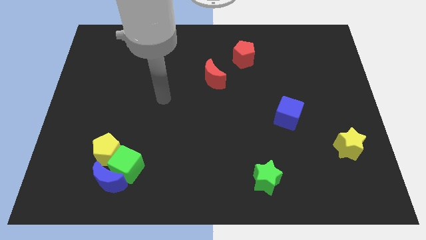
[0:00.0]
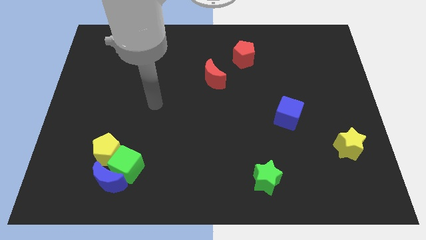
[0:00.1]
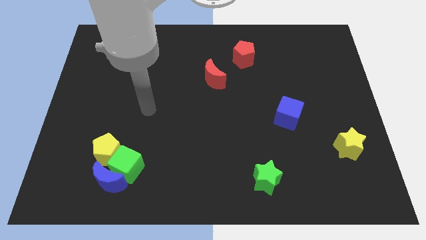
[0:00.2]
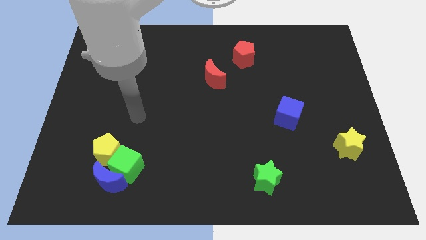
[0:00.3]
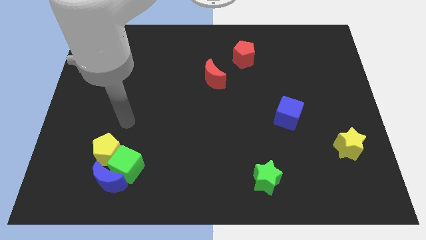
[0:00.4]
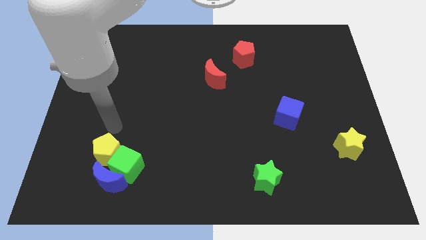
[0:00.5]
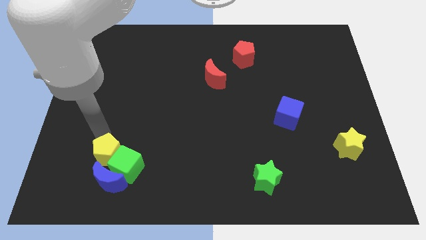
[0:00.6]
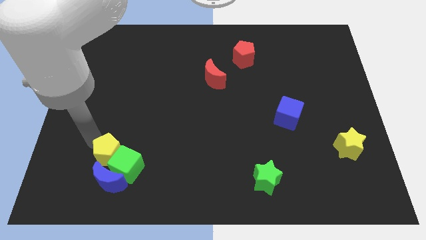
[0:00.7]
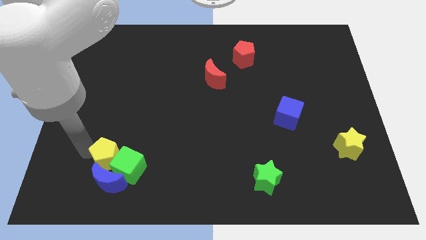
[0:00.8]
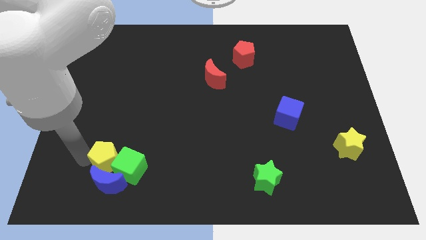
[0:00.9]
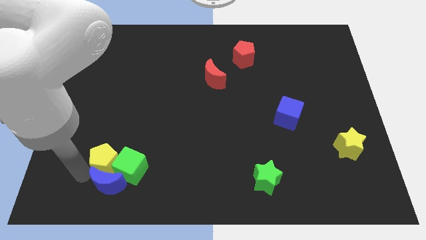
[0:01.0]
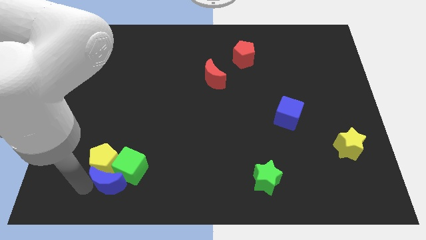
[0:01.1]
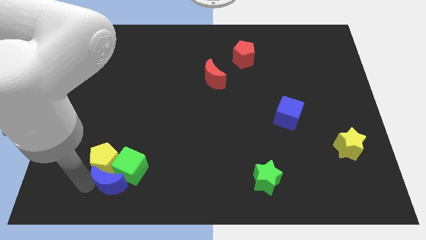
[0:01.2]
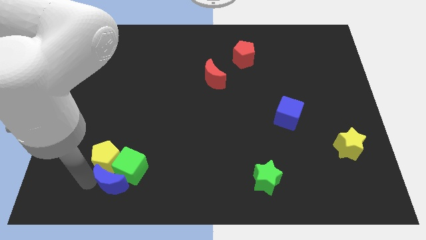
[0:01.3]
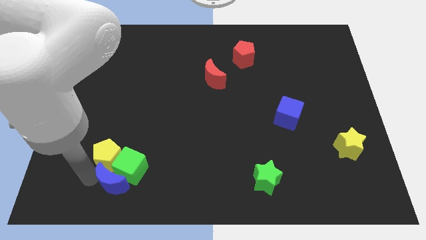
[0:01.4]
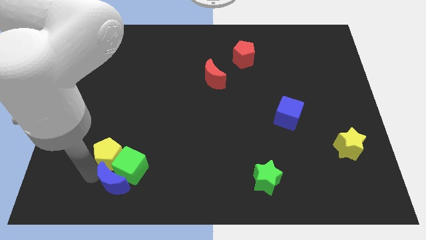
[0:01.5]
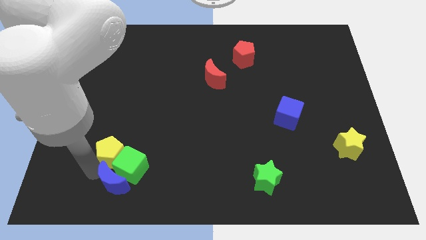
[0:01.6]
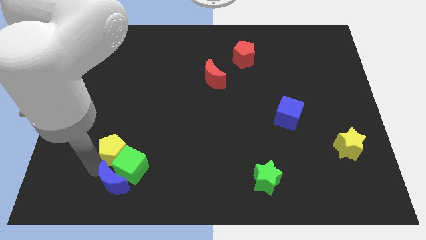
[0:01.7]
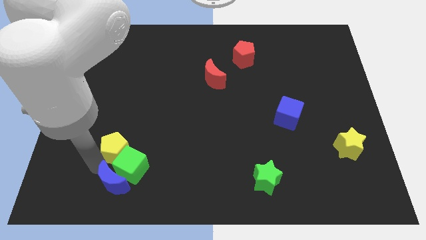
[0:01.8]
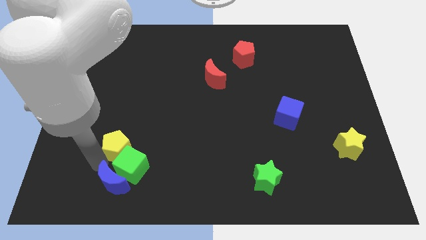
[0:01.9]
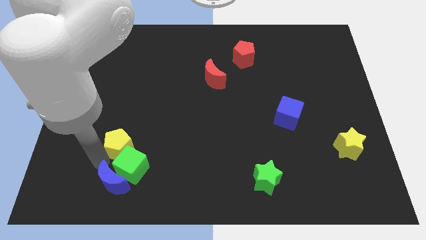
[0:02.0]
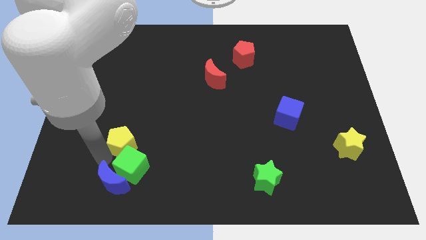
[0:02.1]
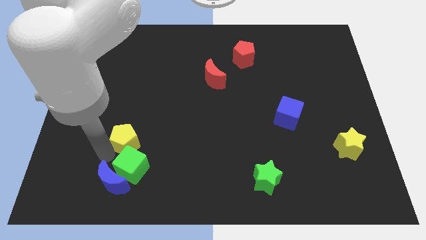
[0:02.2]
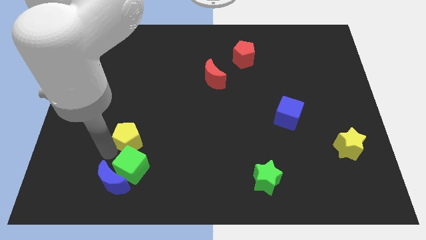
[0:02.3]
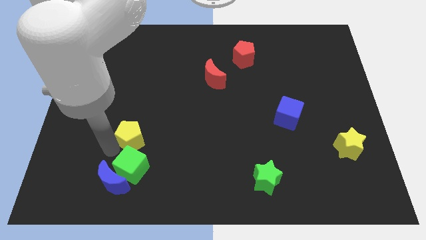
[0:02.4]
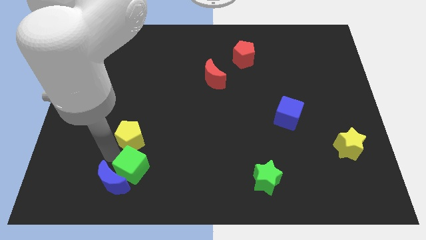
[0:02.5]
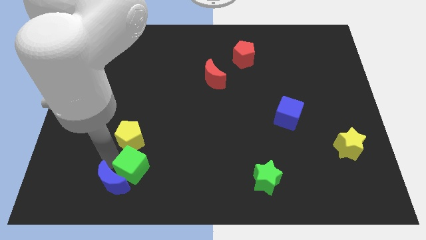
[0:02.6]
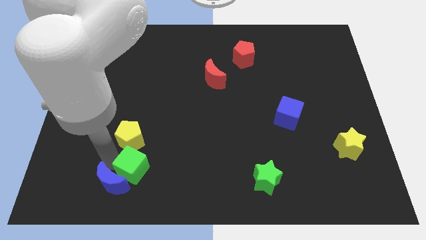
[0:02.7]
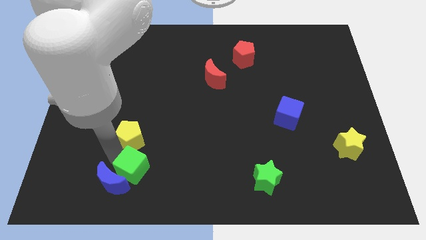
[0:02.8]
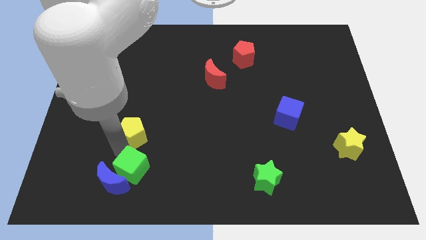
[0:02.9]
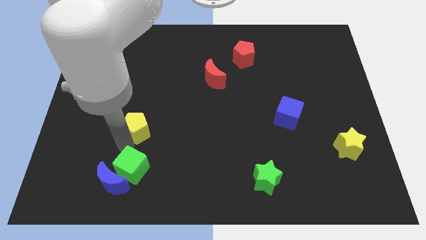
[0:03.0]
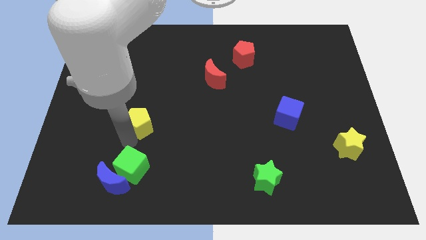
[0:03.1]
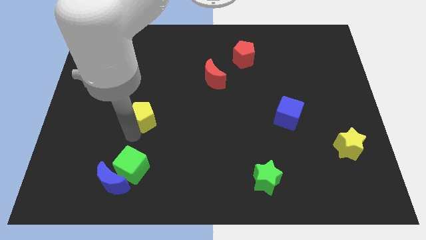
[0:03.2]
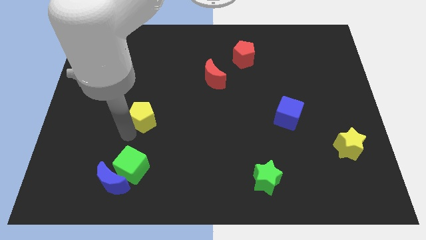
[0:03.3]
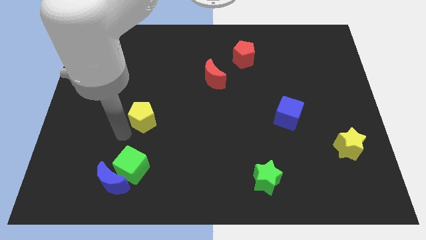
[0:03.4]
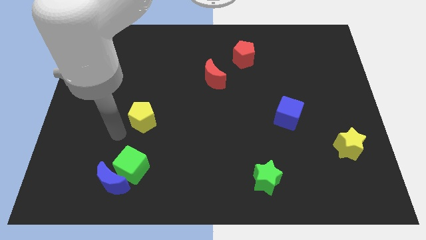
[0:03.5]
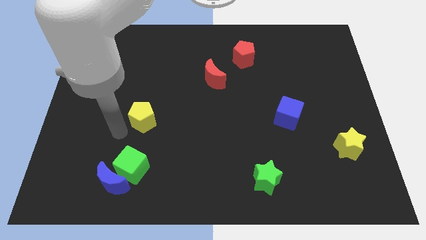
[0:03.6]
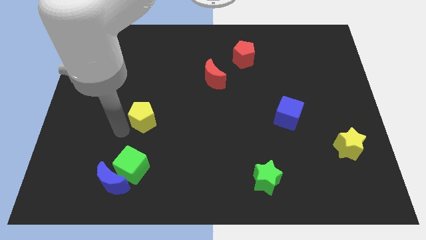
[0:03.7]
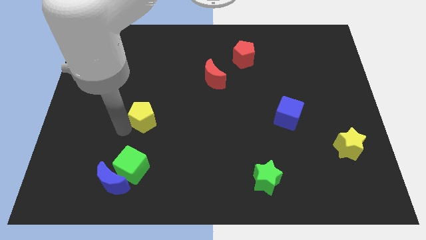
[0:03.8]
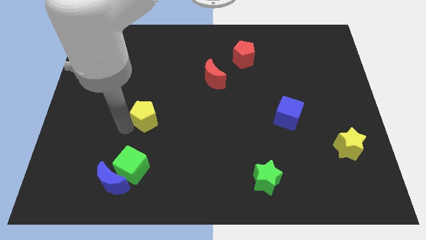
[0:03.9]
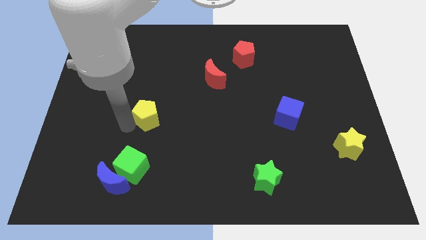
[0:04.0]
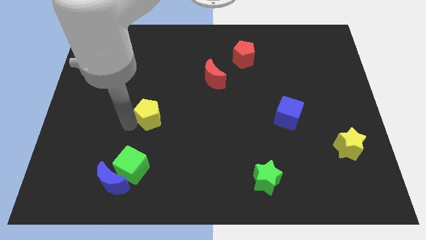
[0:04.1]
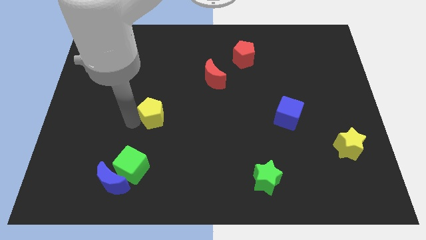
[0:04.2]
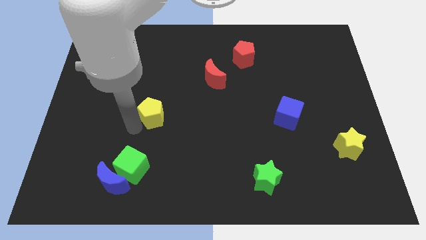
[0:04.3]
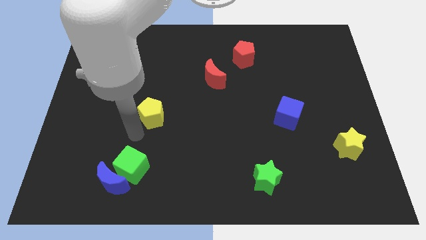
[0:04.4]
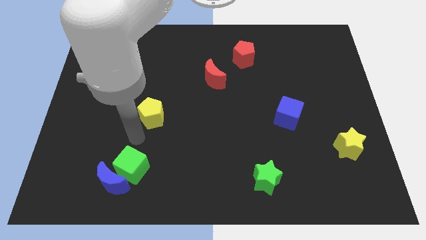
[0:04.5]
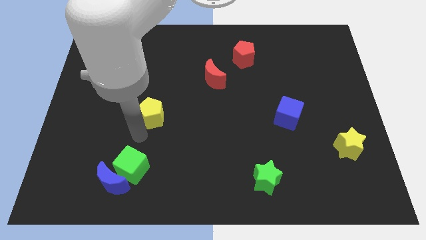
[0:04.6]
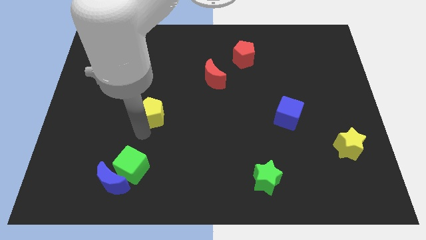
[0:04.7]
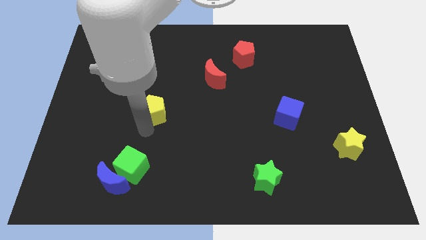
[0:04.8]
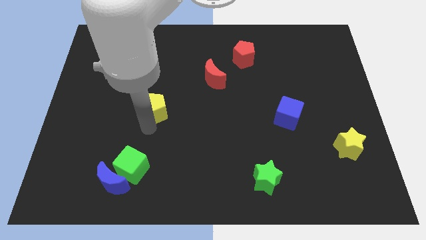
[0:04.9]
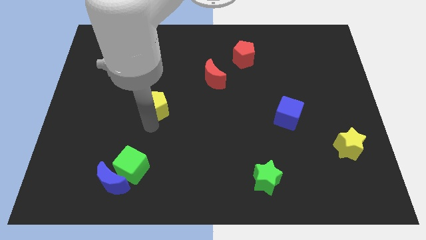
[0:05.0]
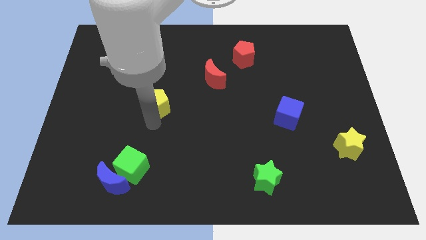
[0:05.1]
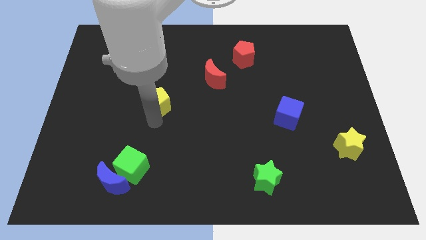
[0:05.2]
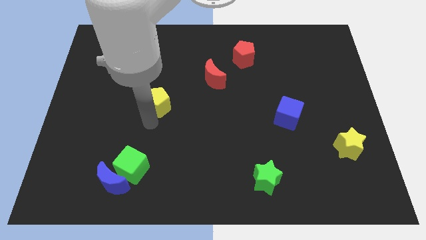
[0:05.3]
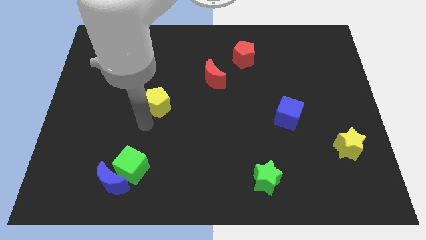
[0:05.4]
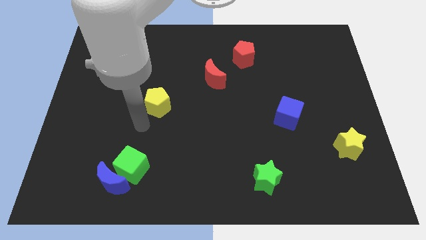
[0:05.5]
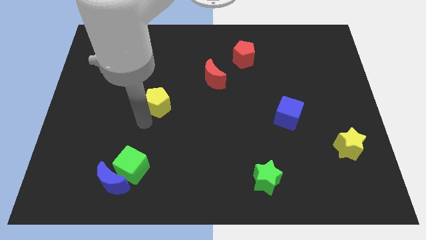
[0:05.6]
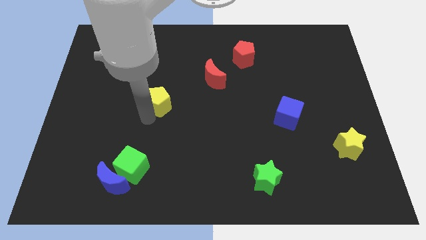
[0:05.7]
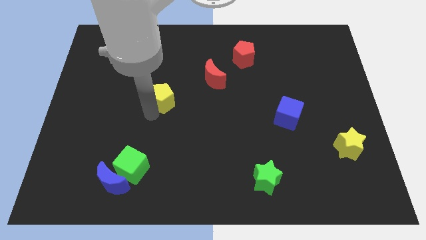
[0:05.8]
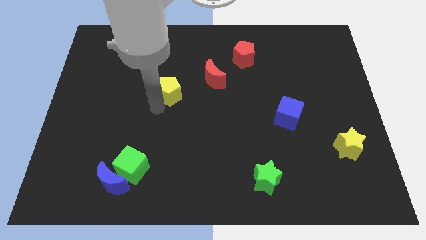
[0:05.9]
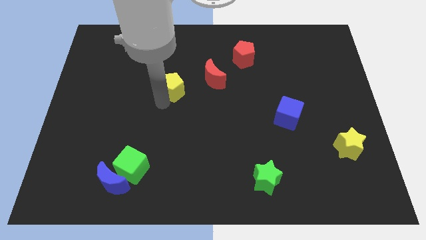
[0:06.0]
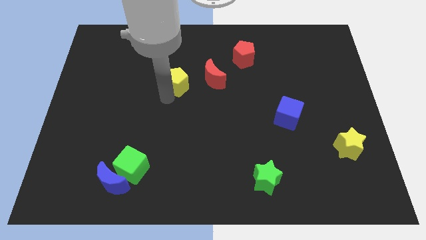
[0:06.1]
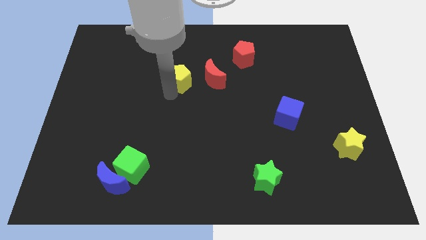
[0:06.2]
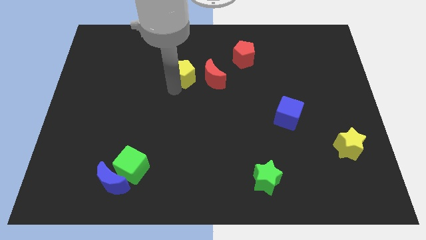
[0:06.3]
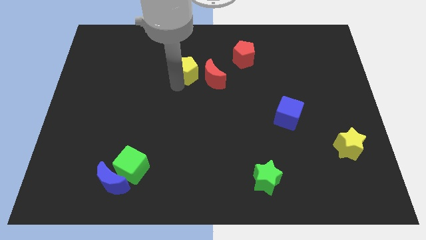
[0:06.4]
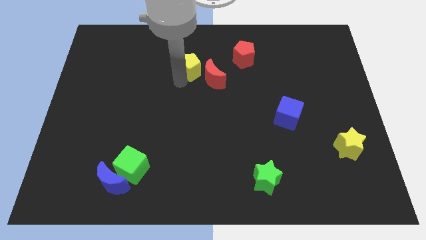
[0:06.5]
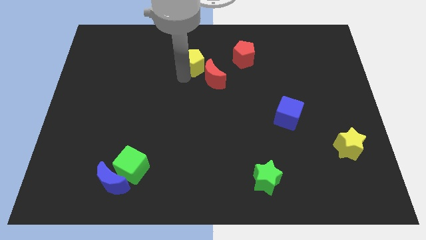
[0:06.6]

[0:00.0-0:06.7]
move the yellow pentagon just left of the red pentagon
